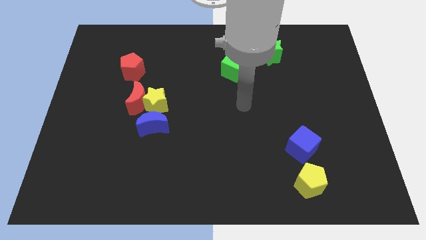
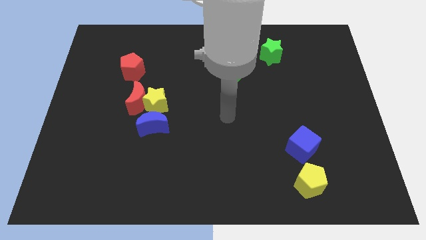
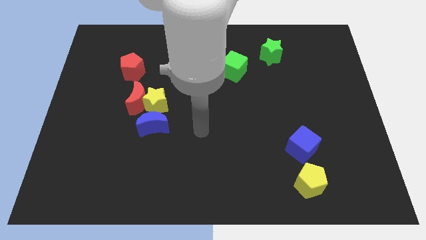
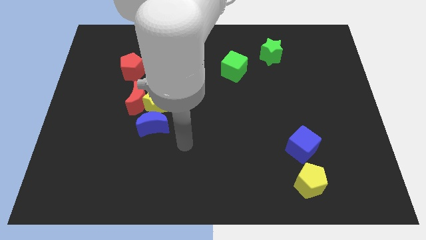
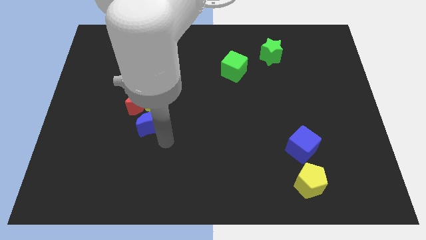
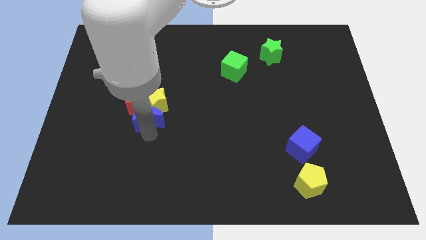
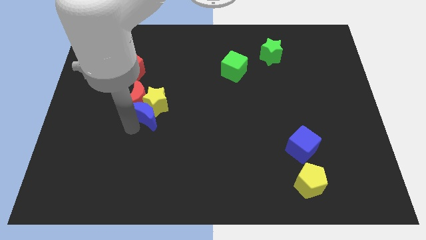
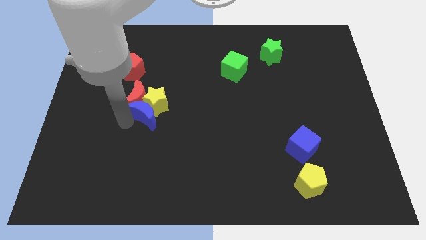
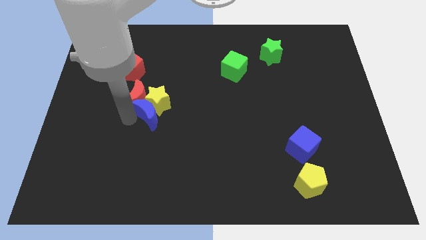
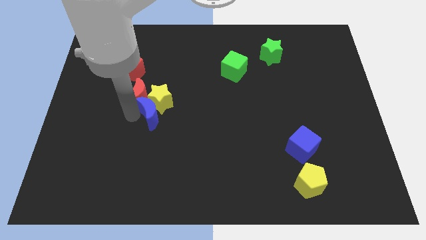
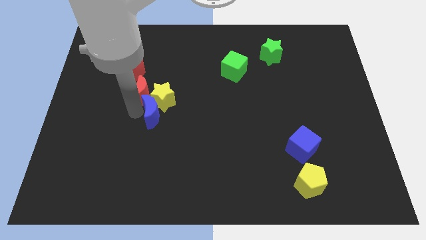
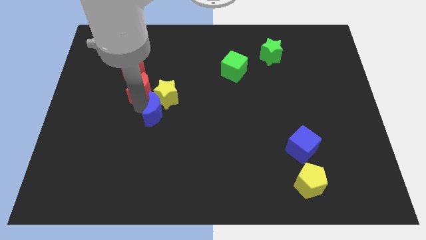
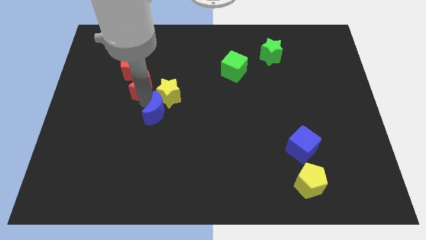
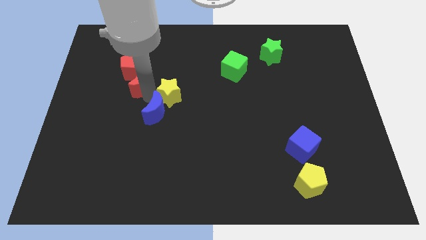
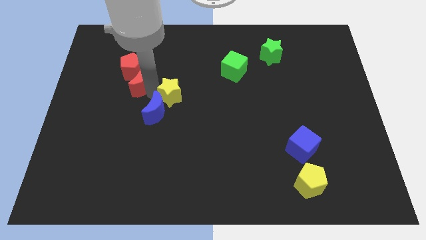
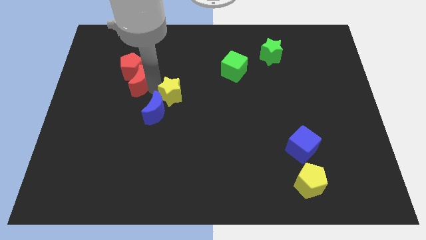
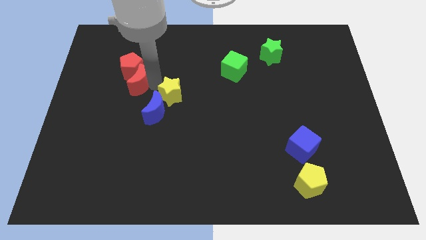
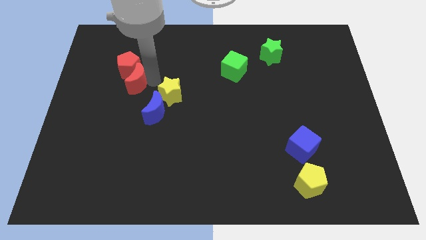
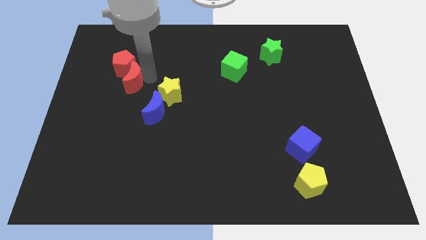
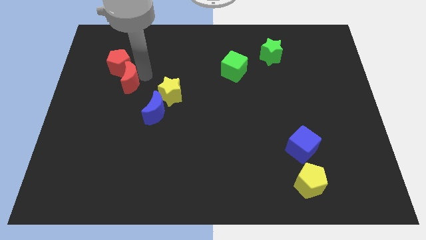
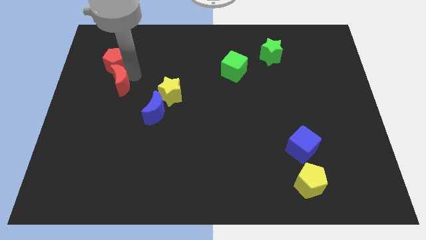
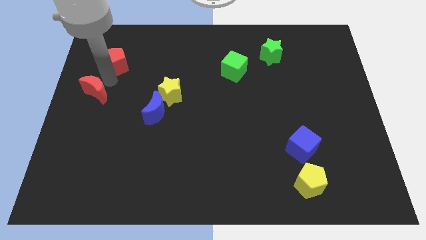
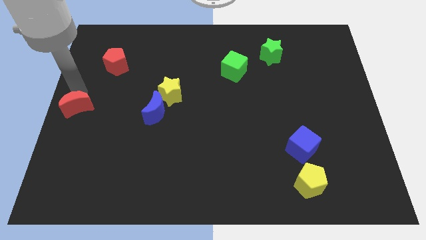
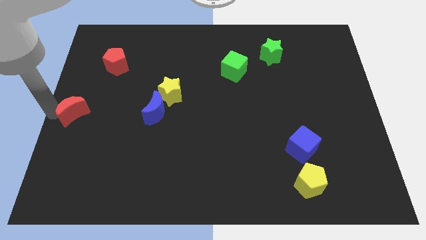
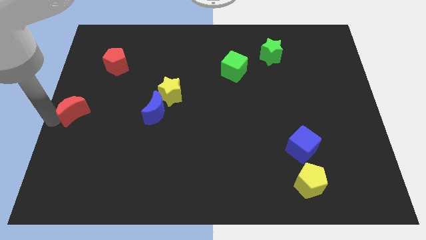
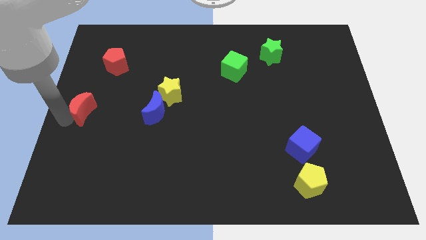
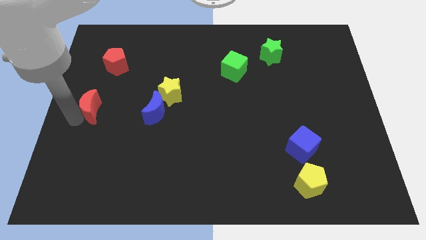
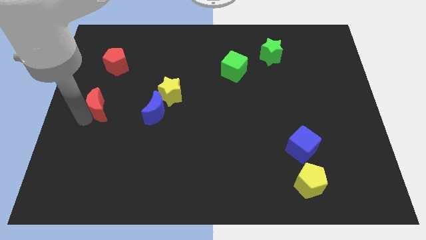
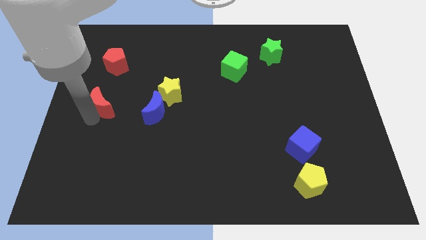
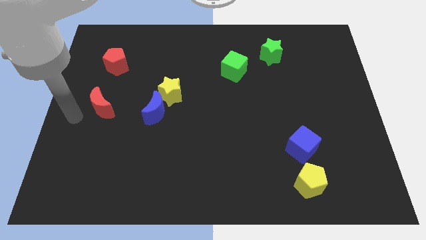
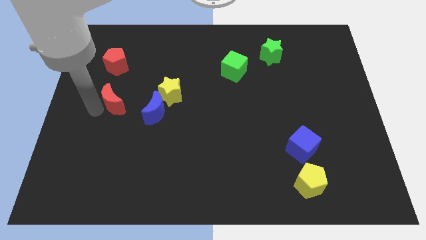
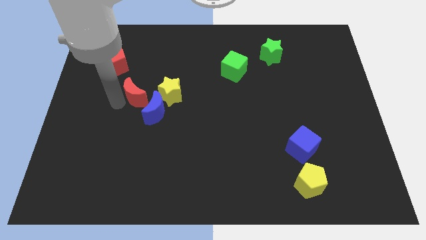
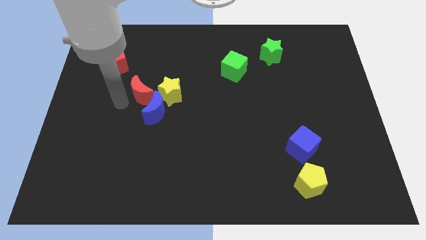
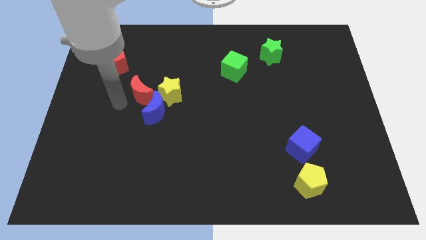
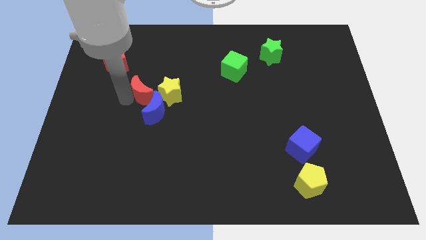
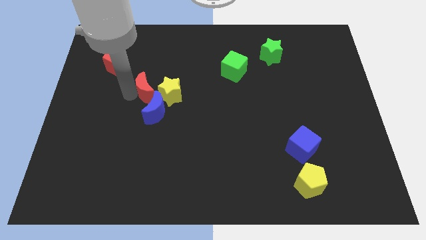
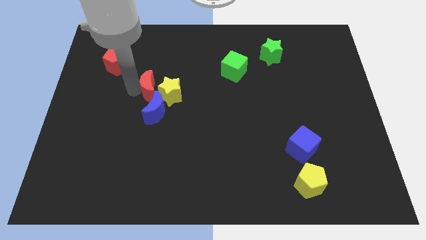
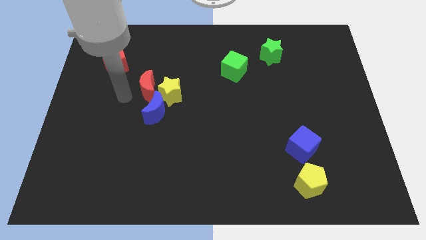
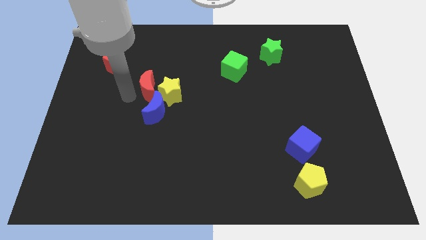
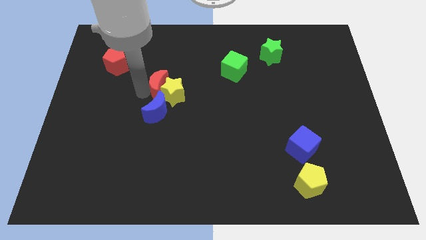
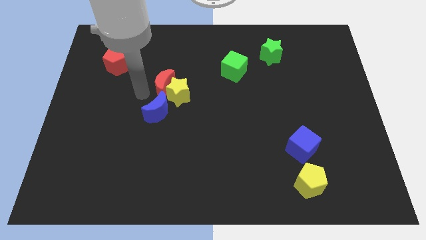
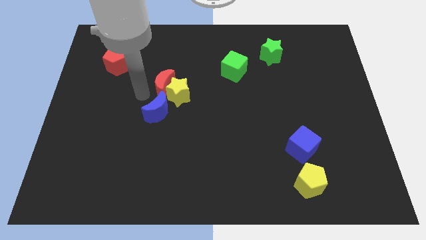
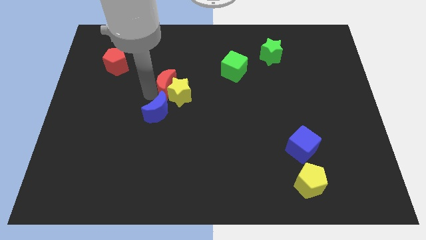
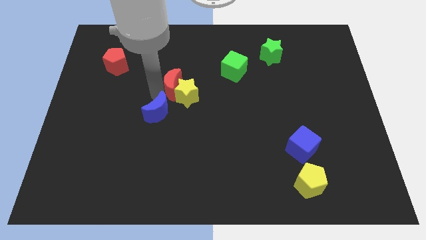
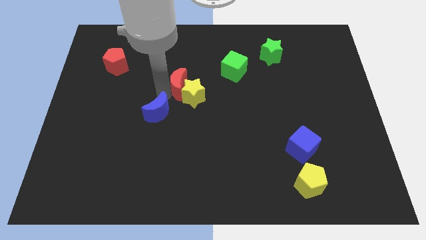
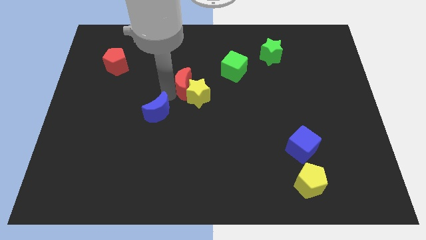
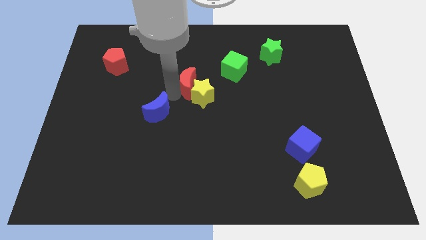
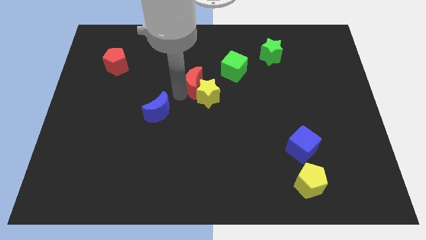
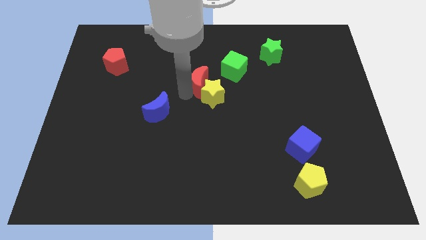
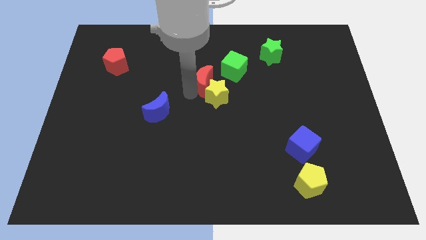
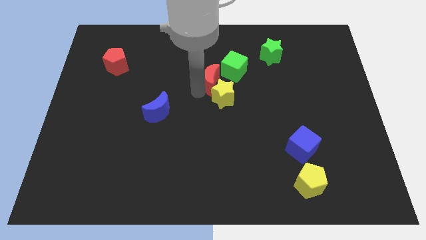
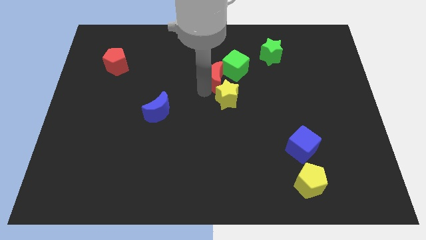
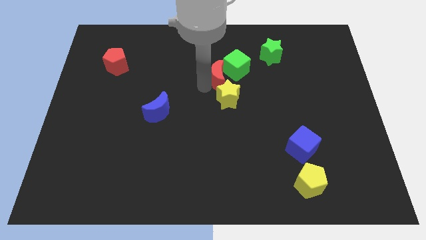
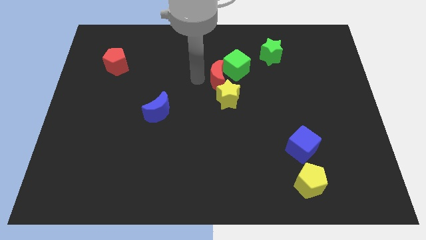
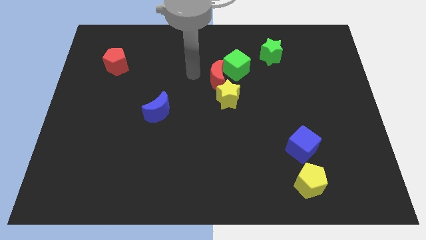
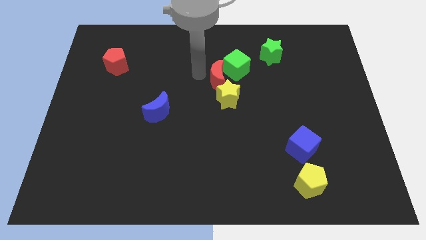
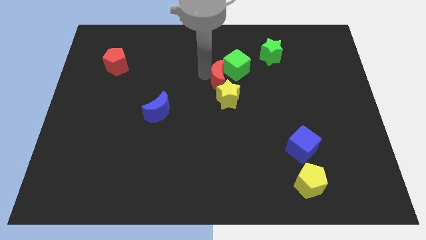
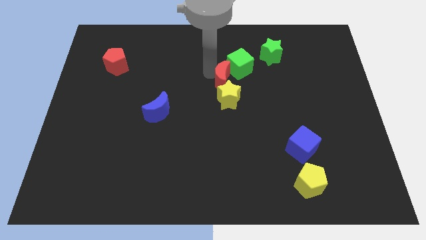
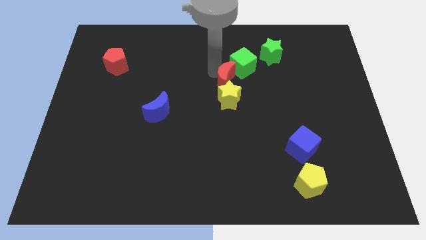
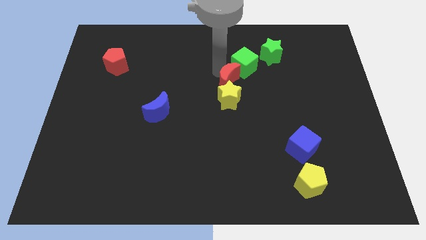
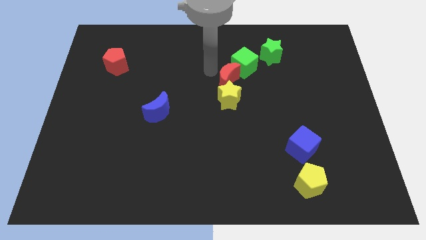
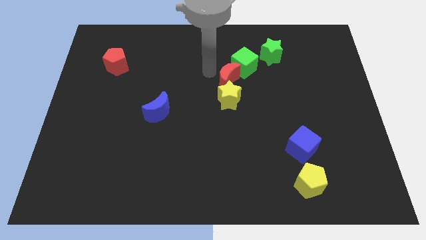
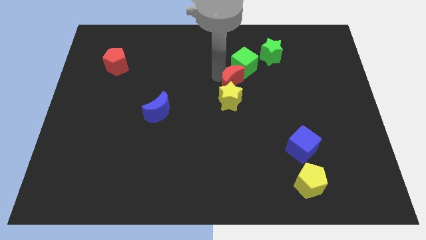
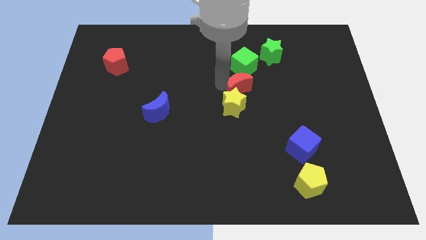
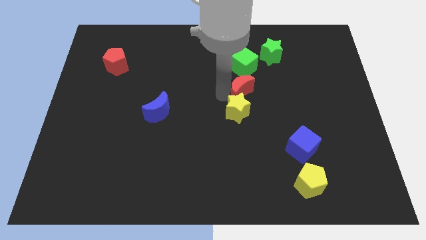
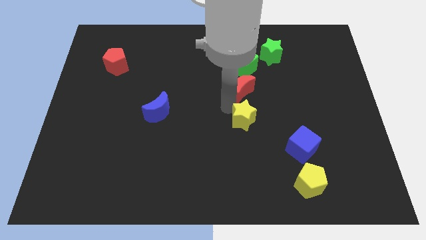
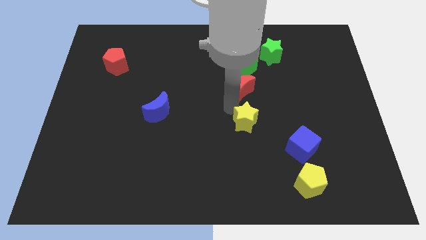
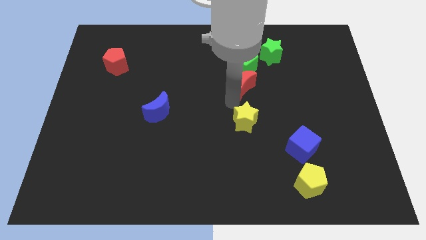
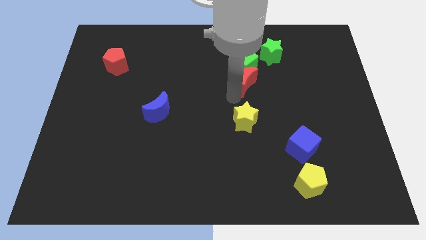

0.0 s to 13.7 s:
push the red moon to the bottom left of the green star

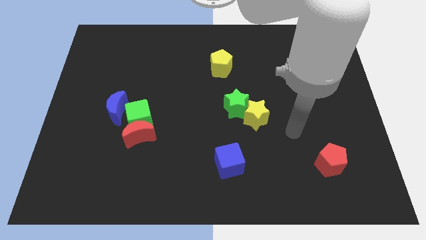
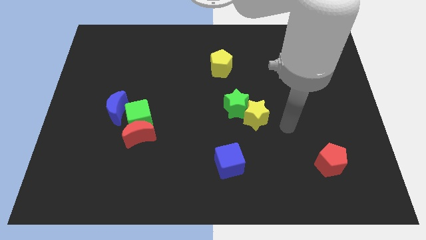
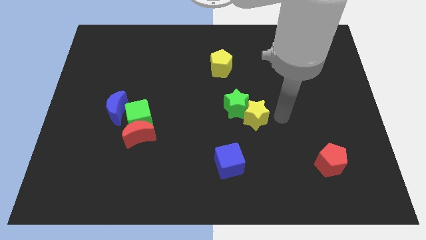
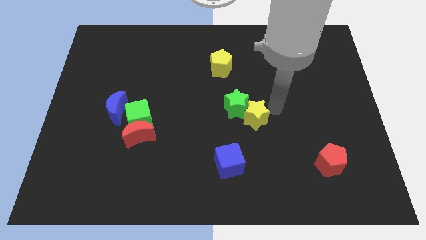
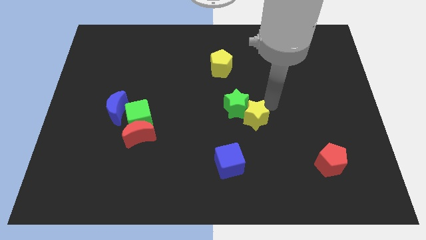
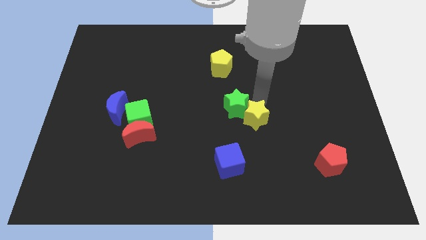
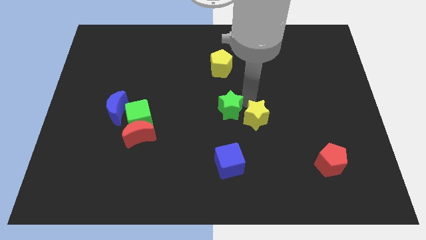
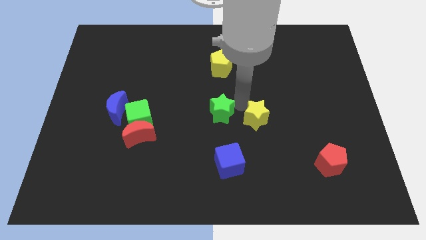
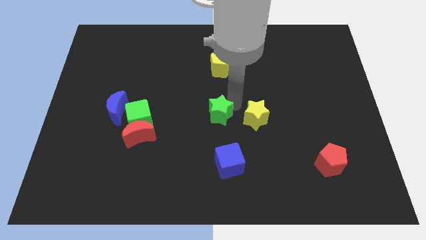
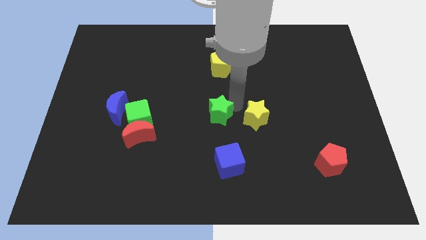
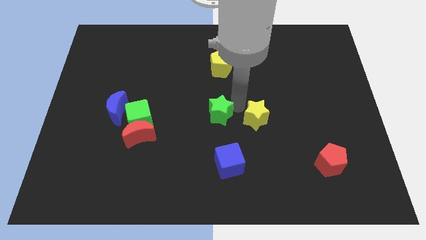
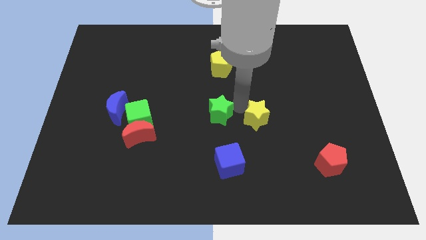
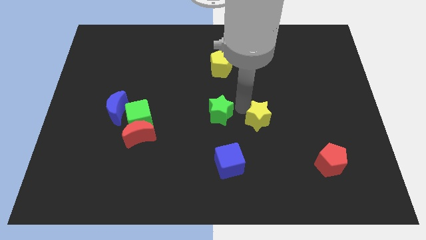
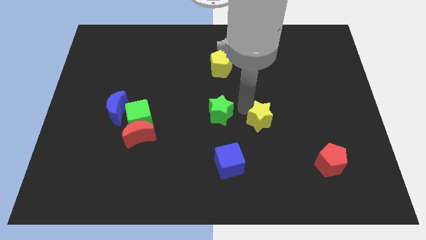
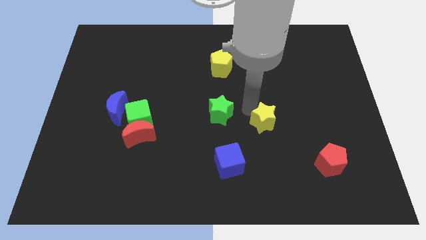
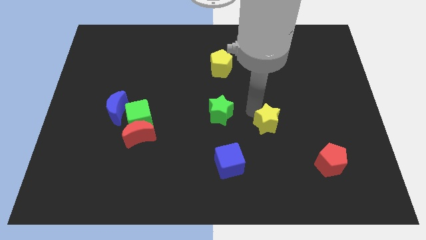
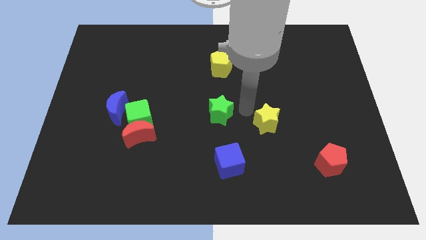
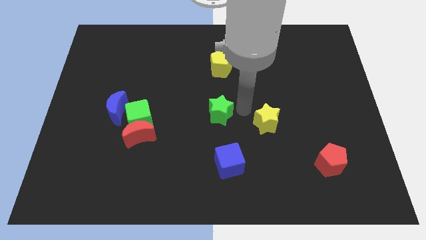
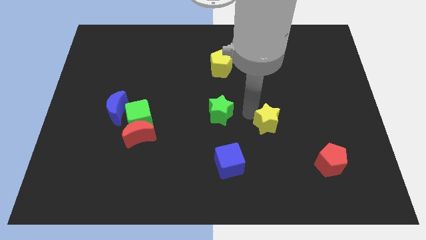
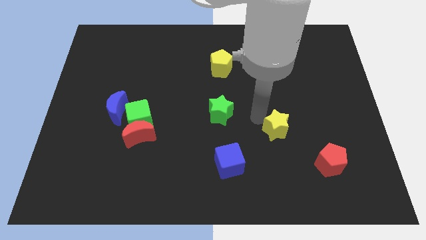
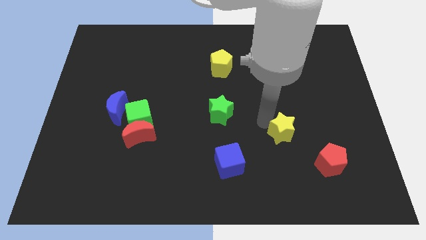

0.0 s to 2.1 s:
push the yellow star to the top left of the red pentagon
